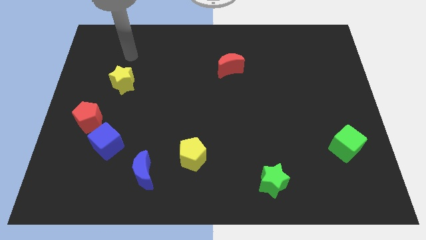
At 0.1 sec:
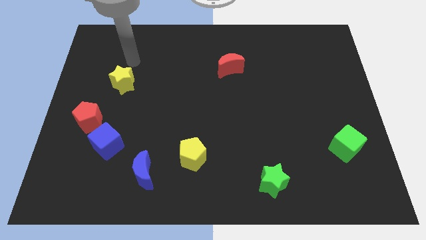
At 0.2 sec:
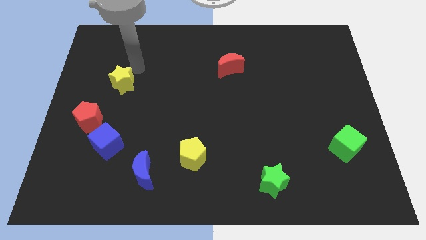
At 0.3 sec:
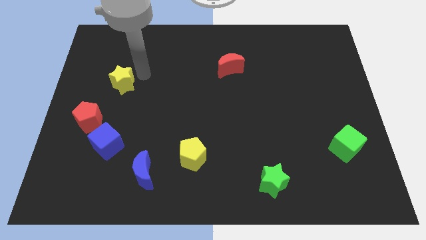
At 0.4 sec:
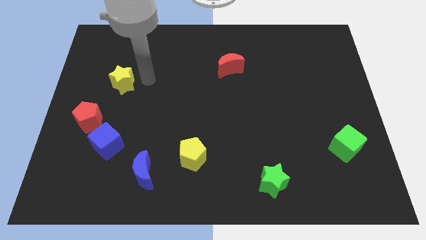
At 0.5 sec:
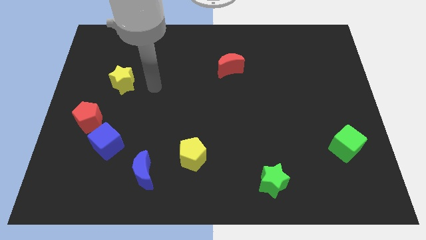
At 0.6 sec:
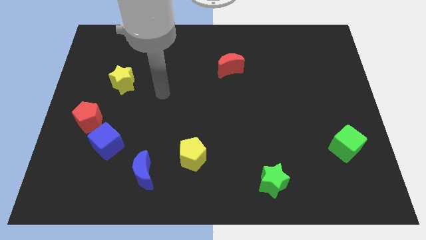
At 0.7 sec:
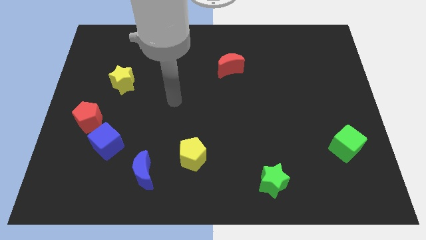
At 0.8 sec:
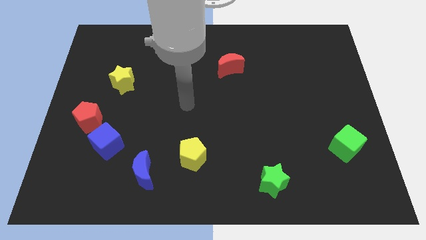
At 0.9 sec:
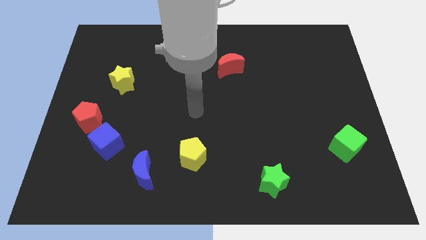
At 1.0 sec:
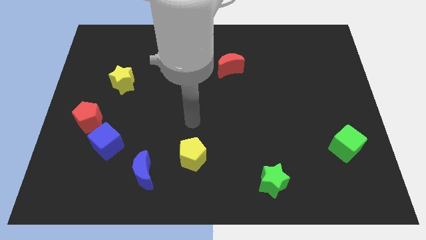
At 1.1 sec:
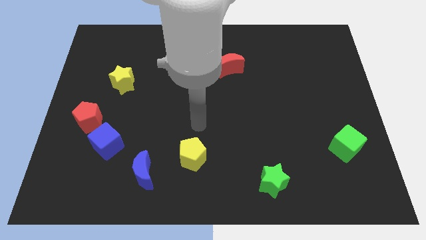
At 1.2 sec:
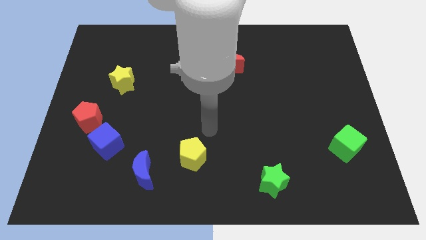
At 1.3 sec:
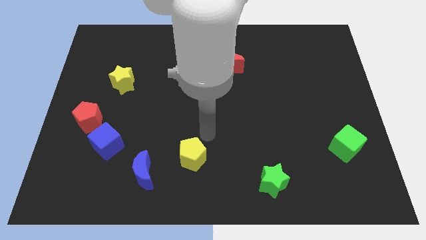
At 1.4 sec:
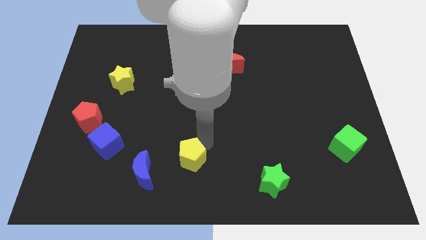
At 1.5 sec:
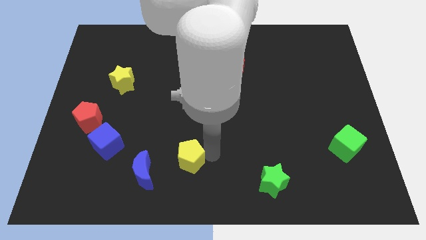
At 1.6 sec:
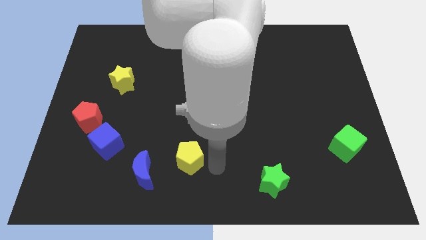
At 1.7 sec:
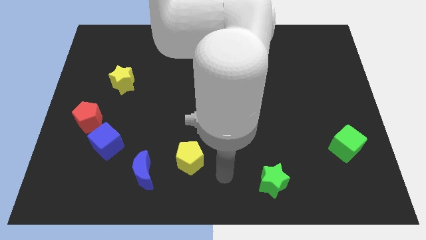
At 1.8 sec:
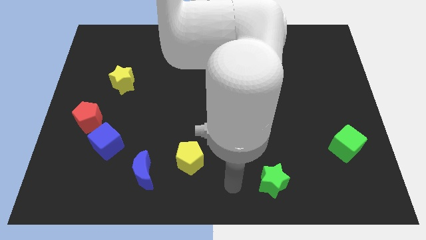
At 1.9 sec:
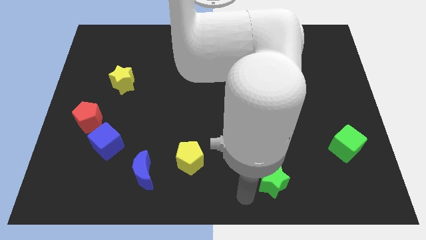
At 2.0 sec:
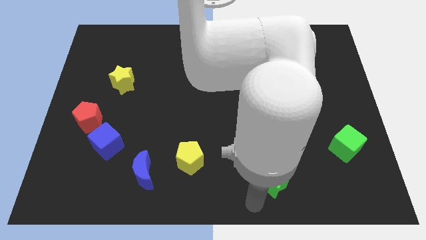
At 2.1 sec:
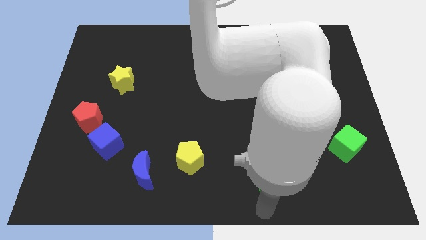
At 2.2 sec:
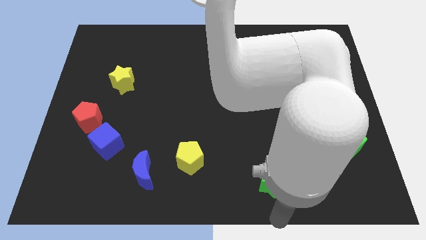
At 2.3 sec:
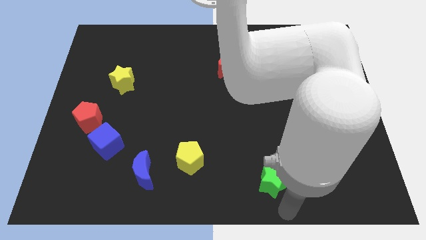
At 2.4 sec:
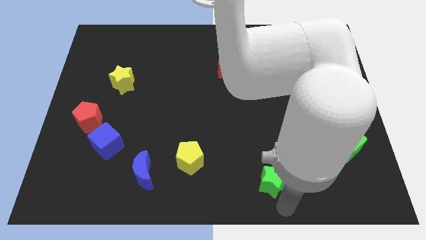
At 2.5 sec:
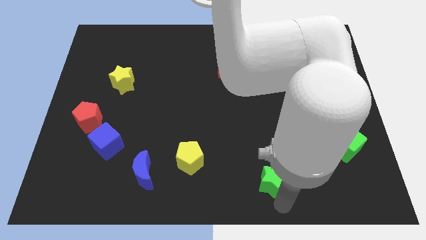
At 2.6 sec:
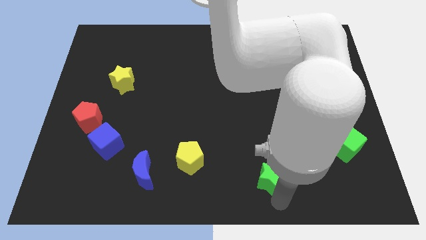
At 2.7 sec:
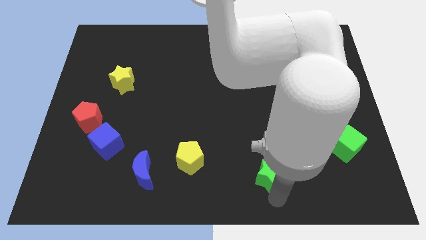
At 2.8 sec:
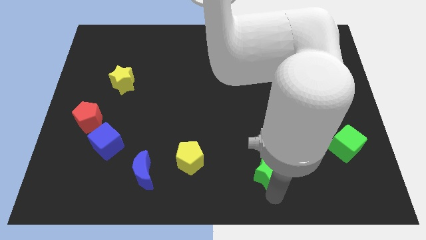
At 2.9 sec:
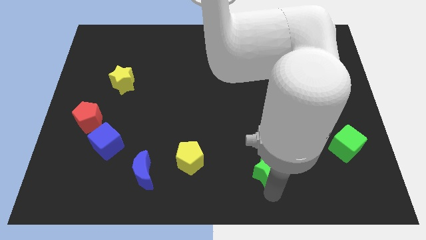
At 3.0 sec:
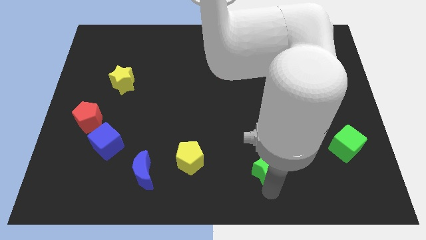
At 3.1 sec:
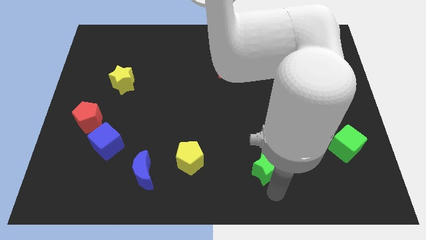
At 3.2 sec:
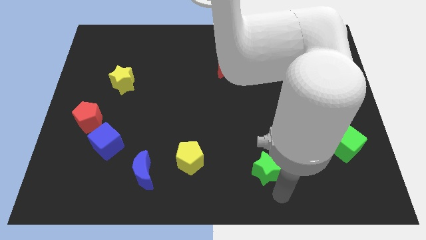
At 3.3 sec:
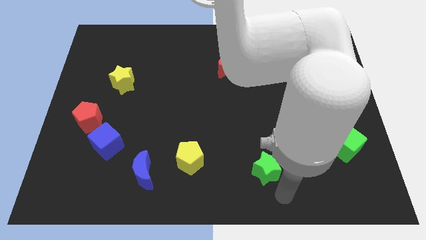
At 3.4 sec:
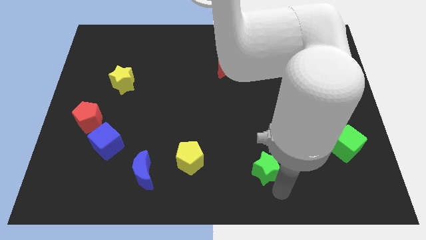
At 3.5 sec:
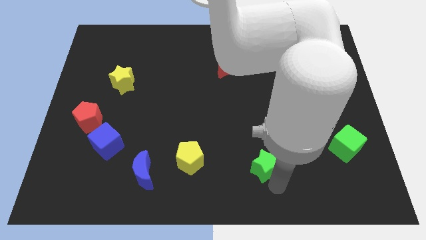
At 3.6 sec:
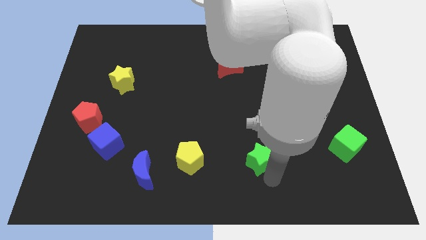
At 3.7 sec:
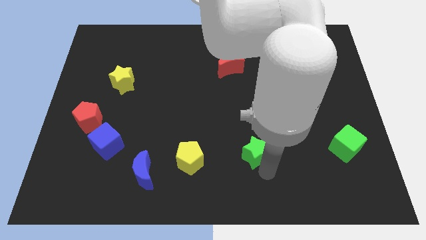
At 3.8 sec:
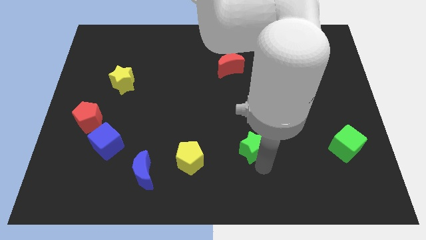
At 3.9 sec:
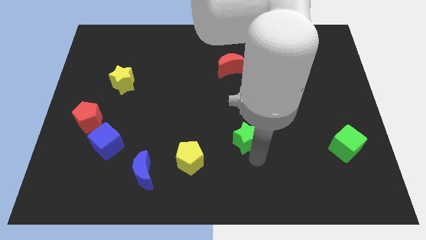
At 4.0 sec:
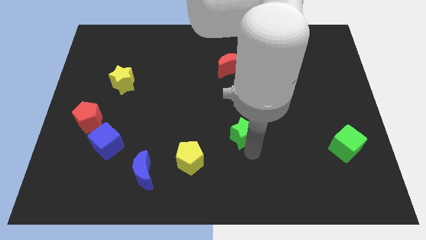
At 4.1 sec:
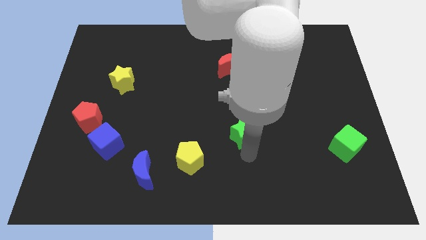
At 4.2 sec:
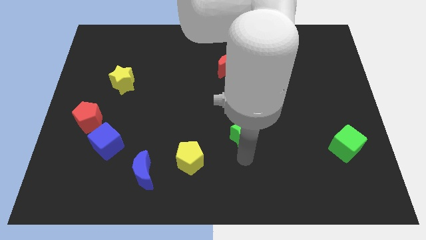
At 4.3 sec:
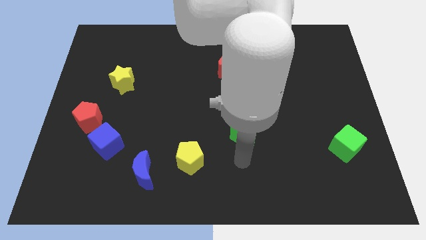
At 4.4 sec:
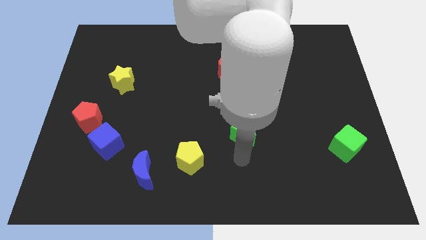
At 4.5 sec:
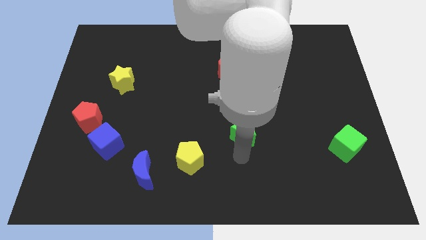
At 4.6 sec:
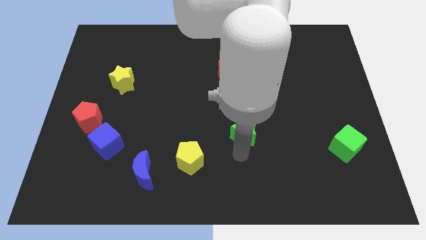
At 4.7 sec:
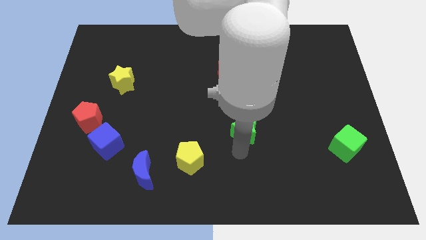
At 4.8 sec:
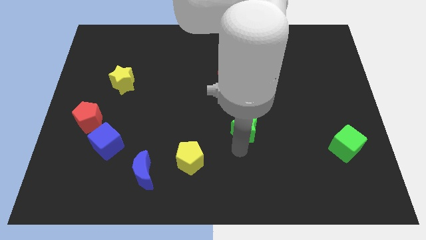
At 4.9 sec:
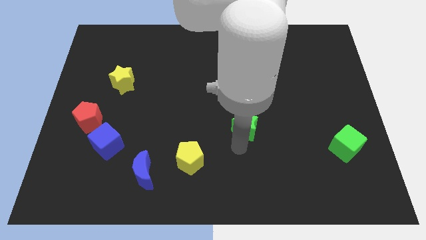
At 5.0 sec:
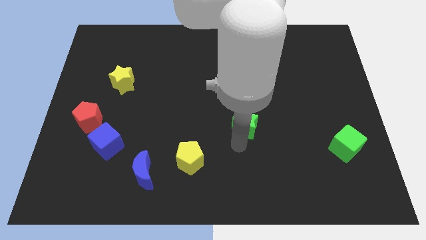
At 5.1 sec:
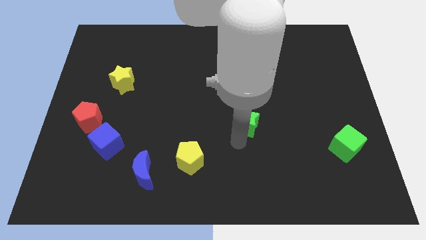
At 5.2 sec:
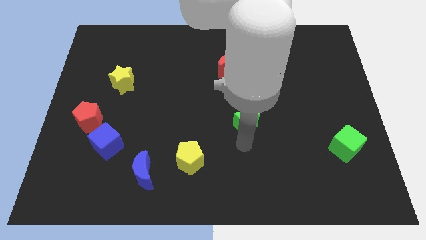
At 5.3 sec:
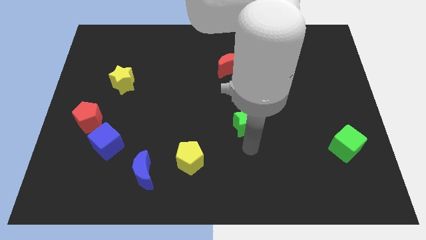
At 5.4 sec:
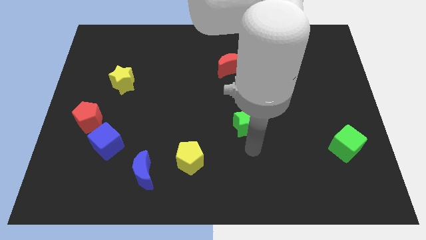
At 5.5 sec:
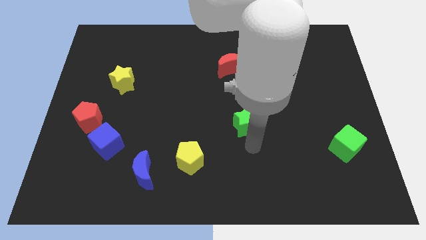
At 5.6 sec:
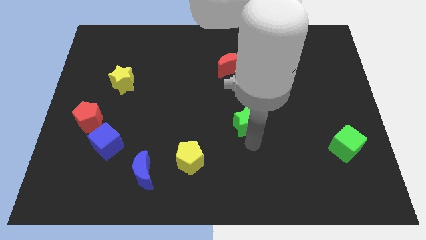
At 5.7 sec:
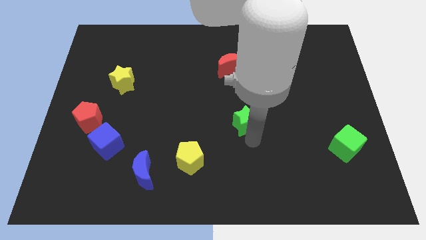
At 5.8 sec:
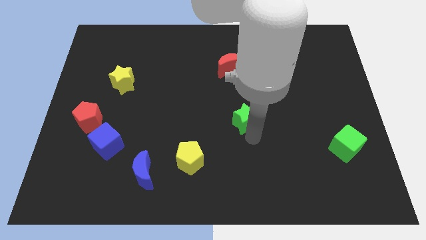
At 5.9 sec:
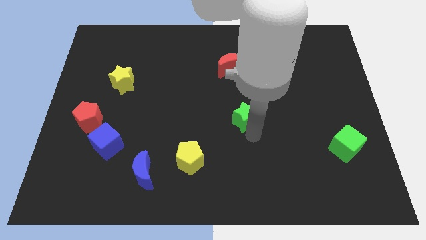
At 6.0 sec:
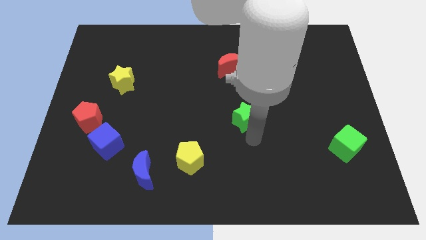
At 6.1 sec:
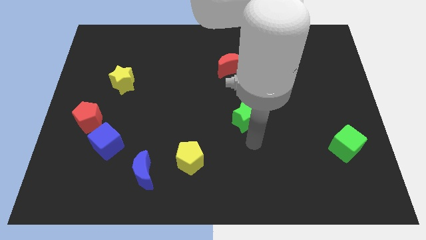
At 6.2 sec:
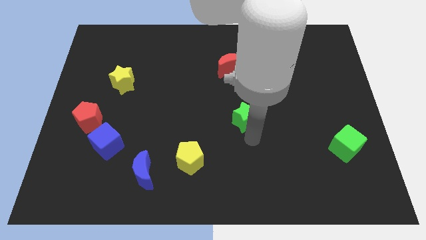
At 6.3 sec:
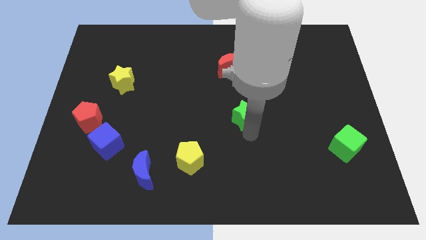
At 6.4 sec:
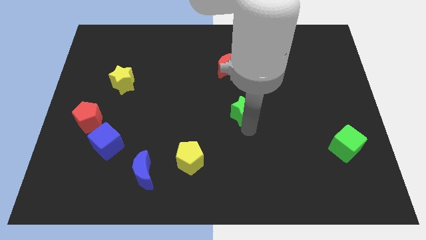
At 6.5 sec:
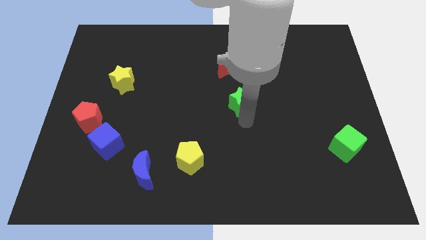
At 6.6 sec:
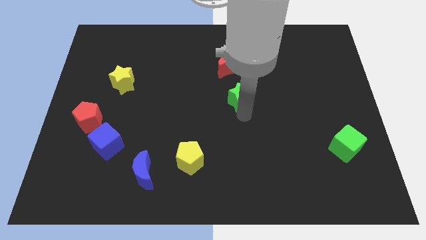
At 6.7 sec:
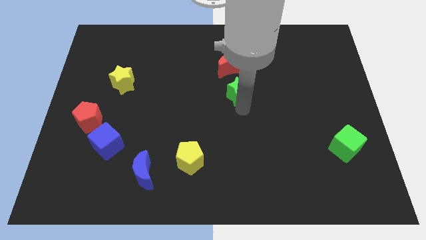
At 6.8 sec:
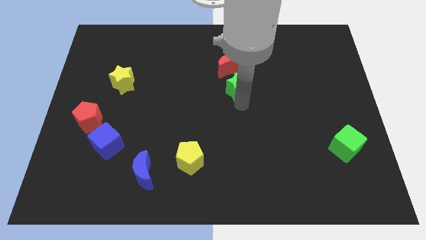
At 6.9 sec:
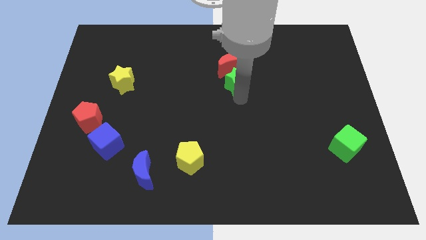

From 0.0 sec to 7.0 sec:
put the green star next to the red moon
